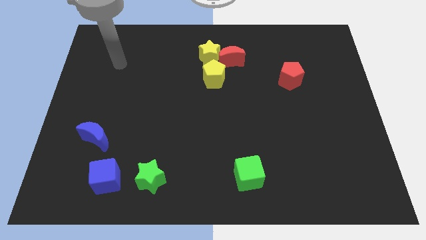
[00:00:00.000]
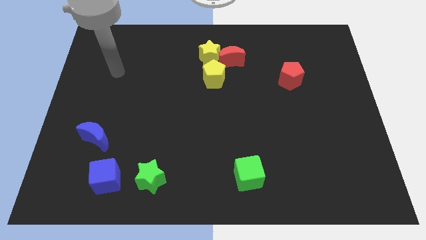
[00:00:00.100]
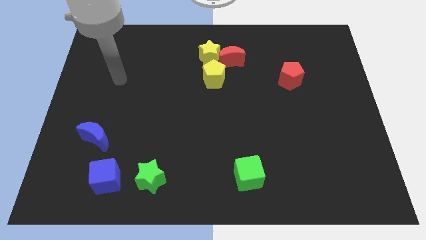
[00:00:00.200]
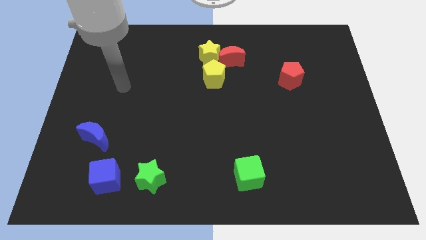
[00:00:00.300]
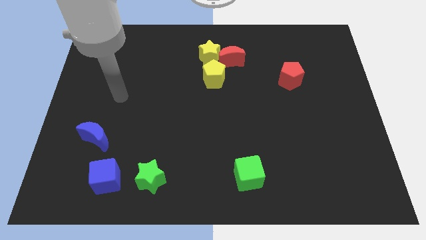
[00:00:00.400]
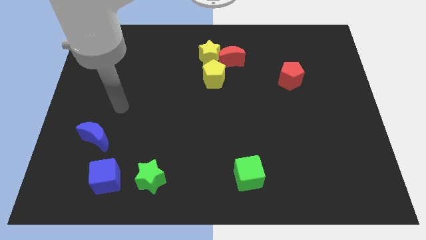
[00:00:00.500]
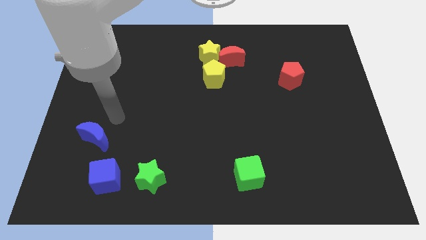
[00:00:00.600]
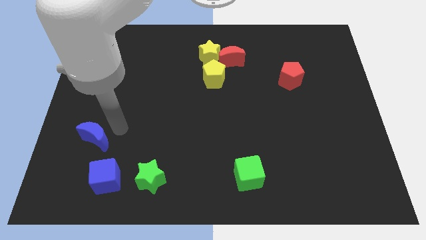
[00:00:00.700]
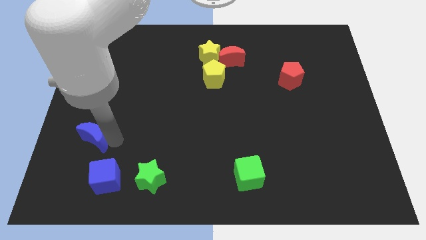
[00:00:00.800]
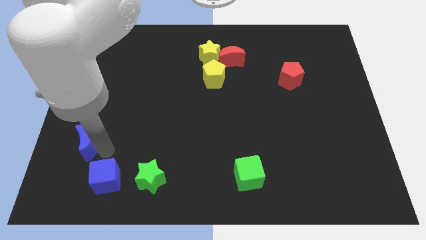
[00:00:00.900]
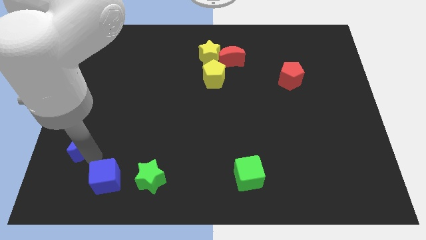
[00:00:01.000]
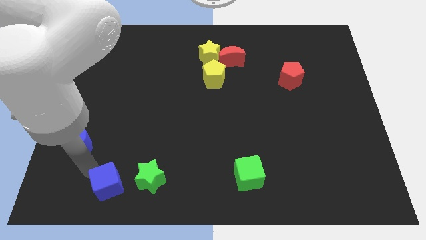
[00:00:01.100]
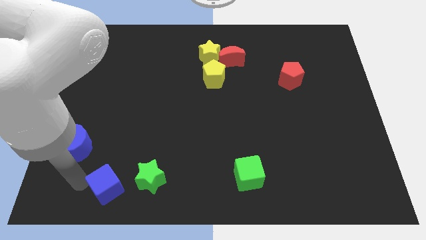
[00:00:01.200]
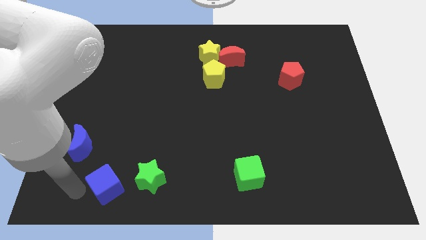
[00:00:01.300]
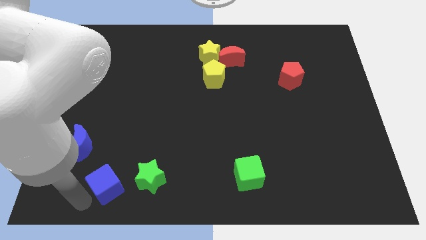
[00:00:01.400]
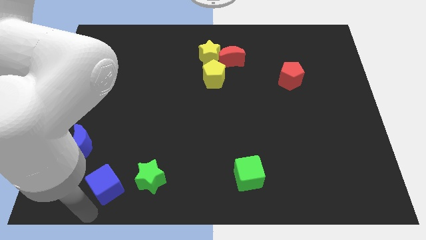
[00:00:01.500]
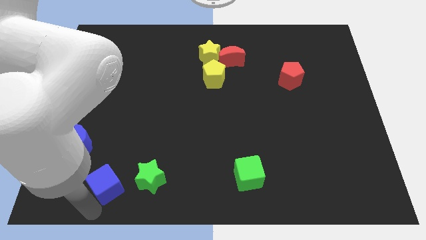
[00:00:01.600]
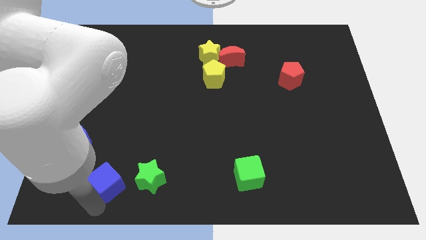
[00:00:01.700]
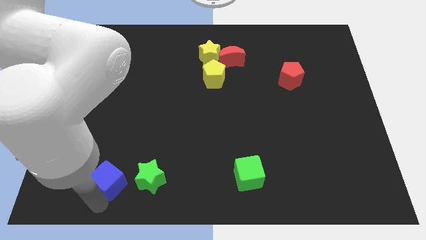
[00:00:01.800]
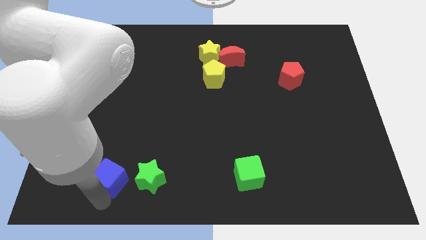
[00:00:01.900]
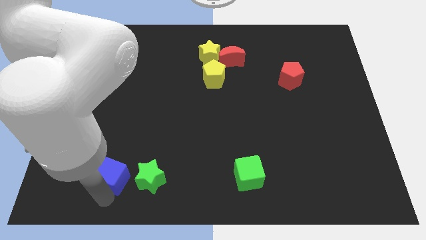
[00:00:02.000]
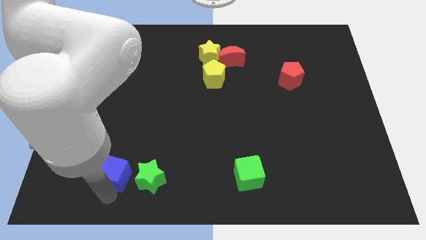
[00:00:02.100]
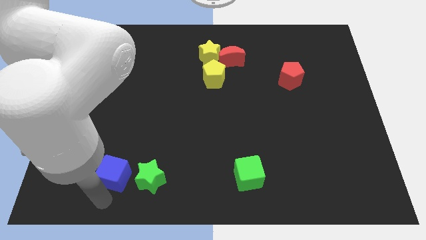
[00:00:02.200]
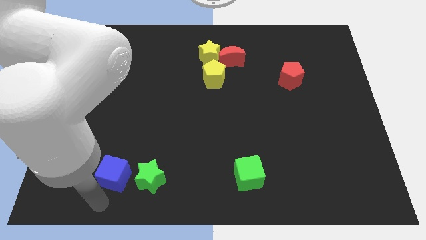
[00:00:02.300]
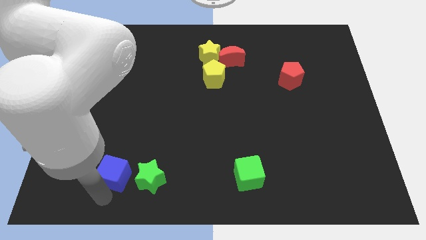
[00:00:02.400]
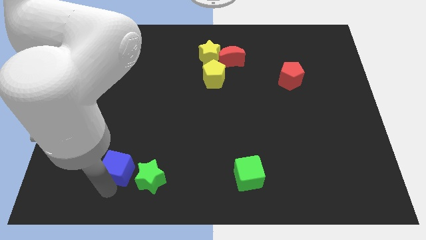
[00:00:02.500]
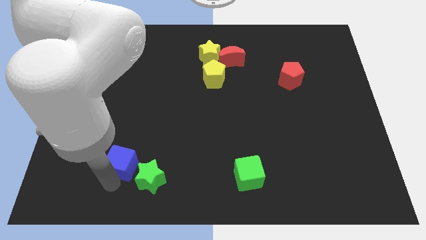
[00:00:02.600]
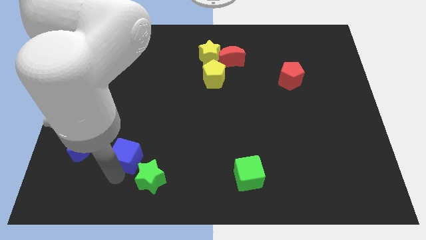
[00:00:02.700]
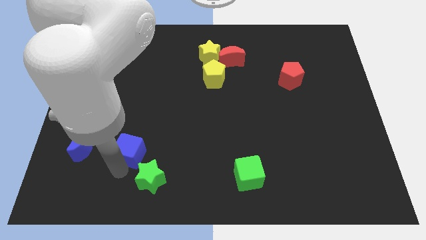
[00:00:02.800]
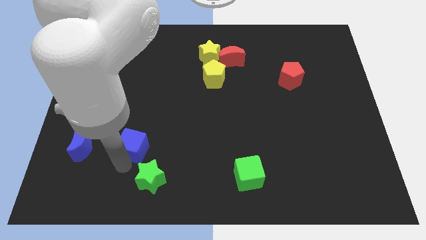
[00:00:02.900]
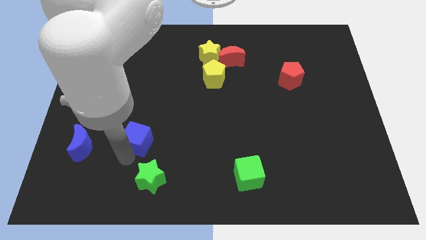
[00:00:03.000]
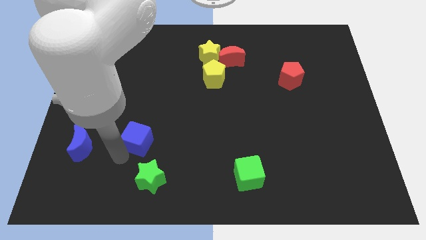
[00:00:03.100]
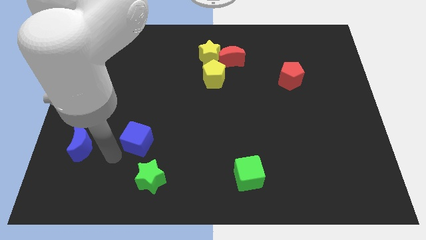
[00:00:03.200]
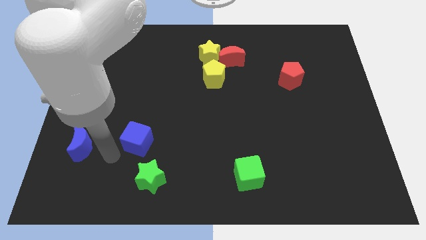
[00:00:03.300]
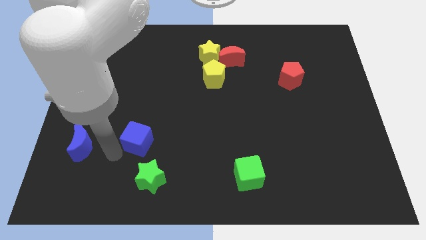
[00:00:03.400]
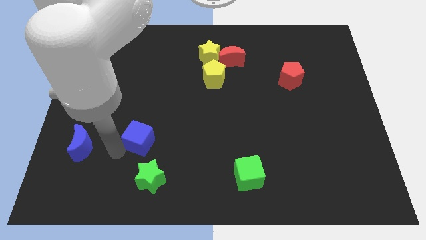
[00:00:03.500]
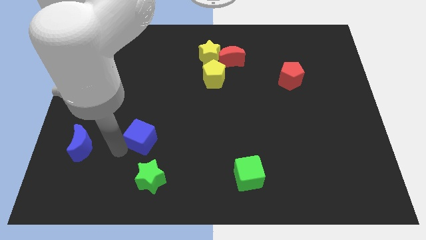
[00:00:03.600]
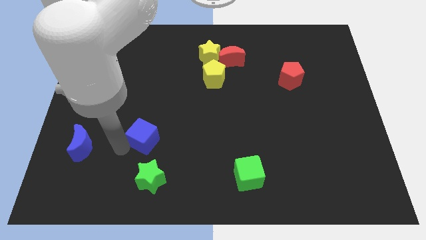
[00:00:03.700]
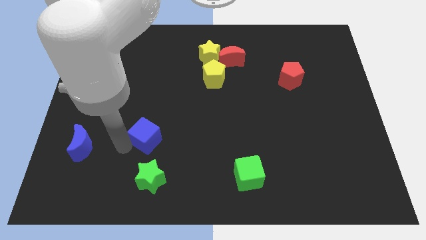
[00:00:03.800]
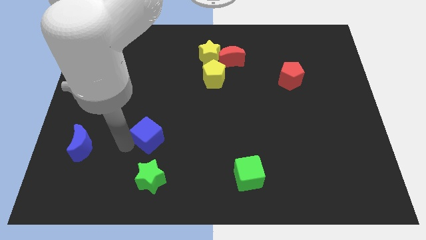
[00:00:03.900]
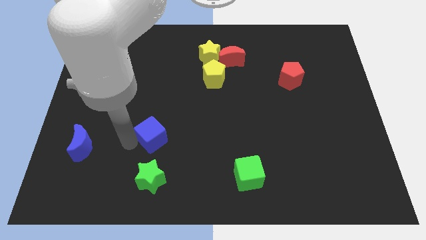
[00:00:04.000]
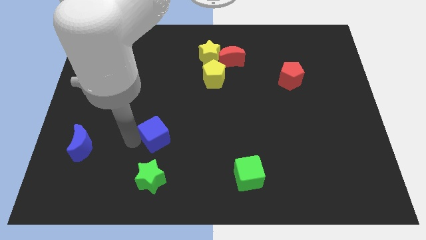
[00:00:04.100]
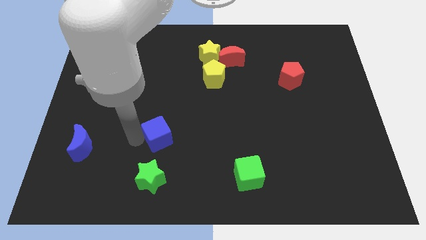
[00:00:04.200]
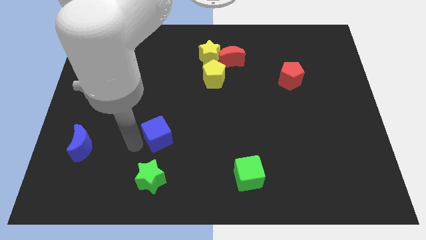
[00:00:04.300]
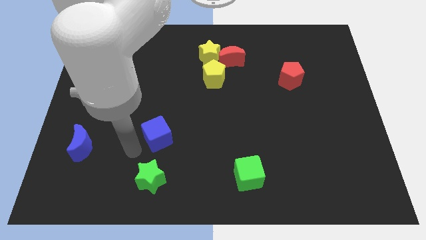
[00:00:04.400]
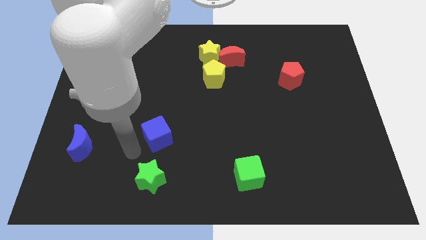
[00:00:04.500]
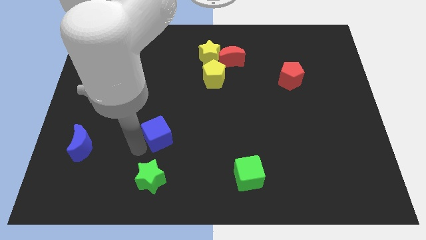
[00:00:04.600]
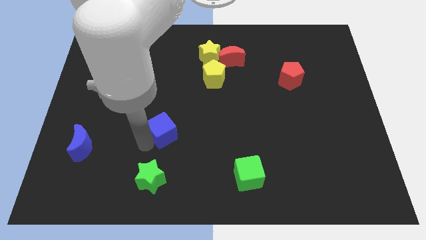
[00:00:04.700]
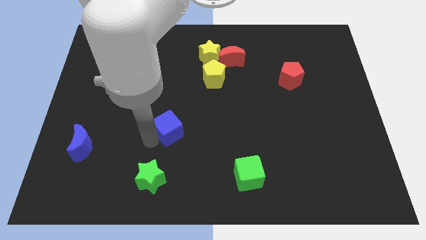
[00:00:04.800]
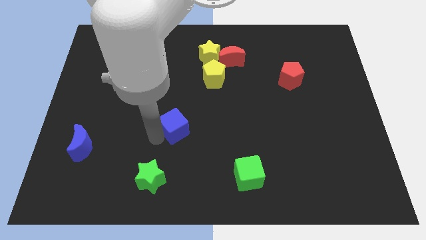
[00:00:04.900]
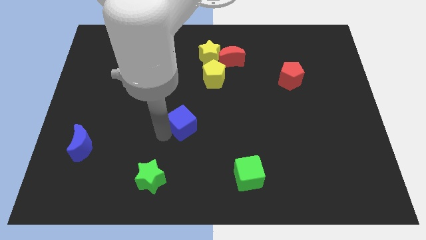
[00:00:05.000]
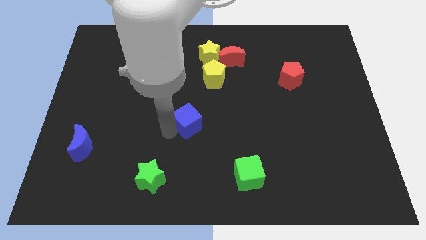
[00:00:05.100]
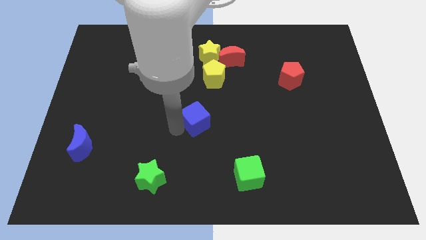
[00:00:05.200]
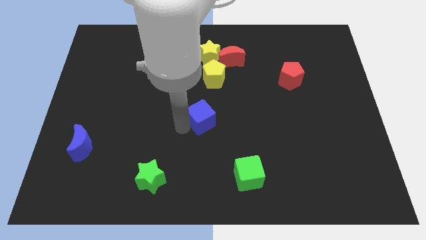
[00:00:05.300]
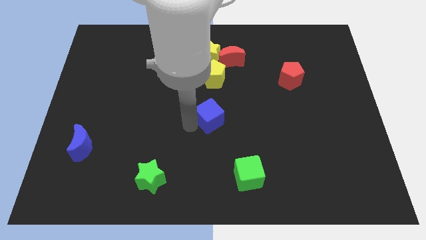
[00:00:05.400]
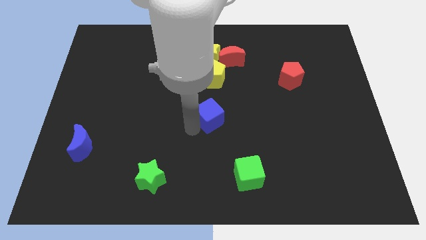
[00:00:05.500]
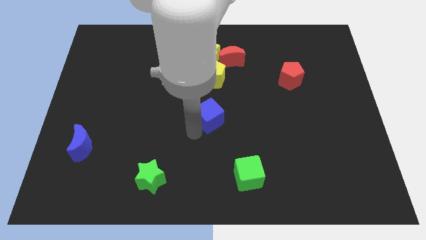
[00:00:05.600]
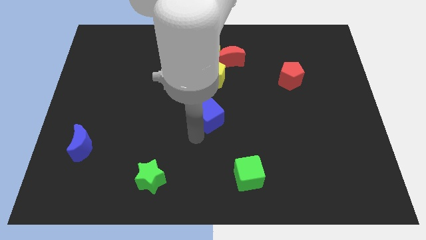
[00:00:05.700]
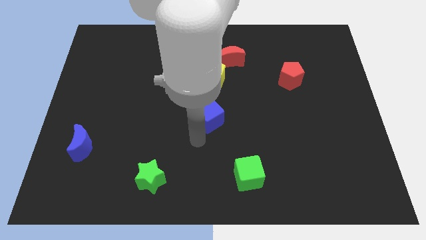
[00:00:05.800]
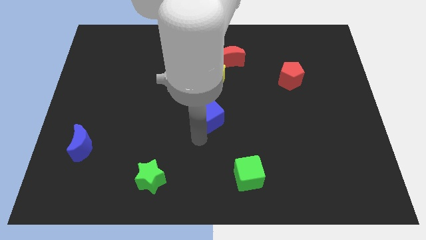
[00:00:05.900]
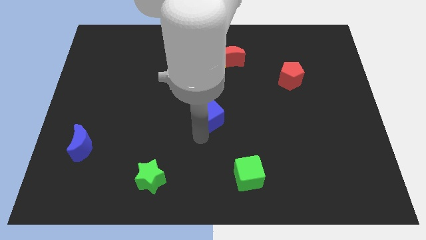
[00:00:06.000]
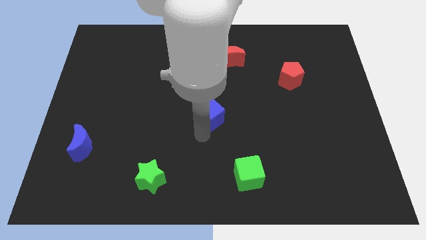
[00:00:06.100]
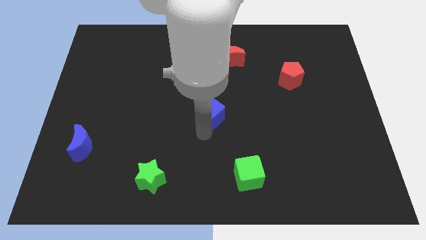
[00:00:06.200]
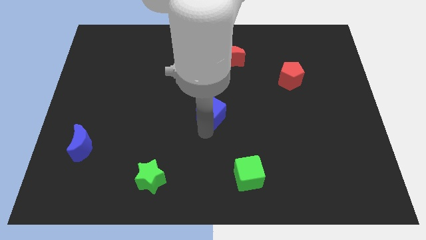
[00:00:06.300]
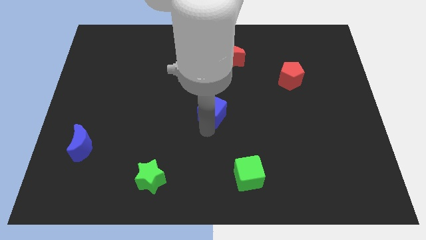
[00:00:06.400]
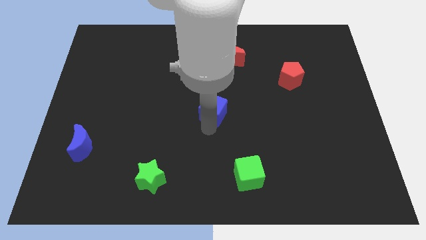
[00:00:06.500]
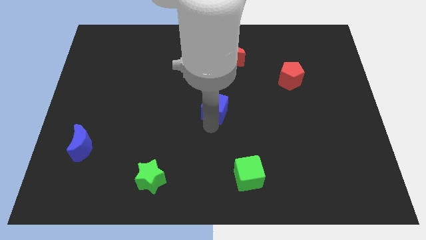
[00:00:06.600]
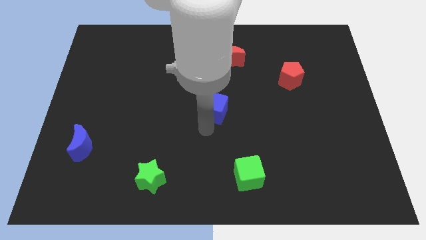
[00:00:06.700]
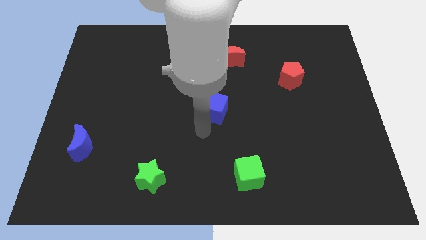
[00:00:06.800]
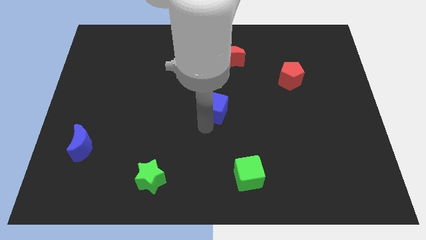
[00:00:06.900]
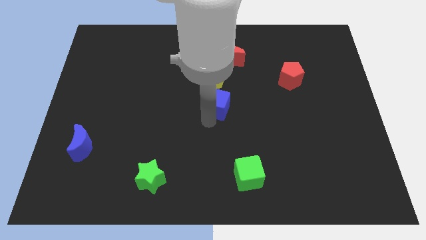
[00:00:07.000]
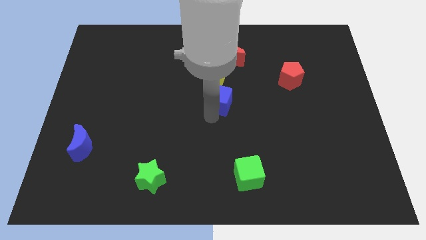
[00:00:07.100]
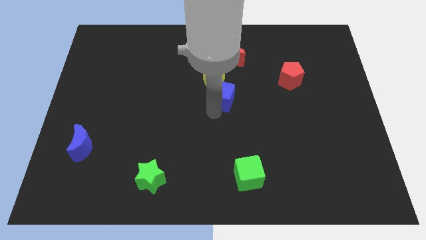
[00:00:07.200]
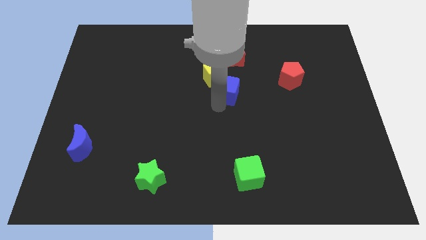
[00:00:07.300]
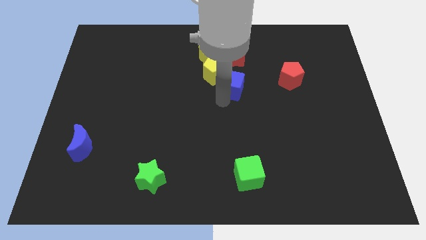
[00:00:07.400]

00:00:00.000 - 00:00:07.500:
move the blue cube to the bottom right of the yellow star
